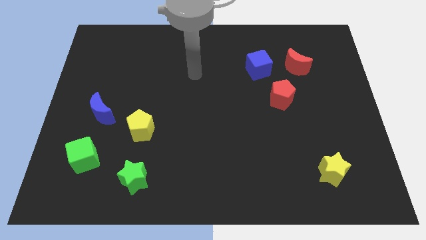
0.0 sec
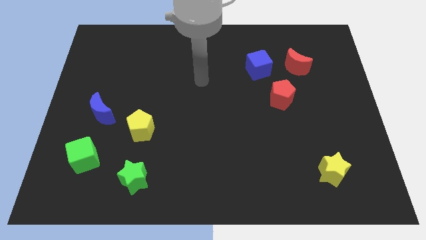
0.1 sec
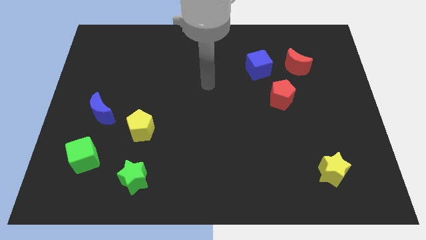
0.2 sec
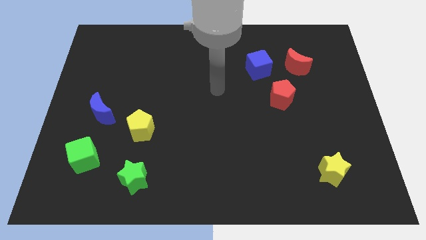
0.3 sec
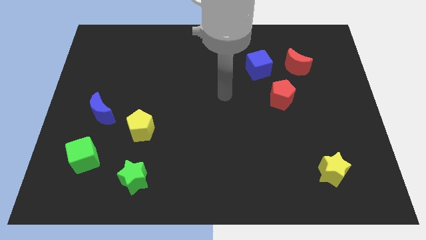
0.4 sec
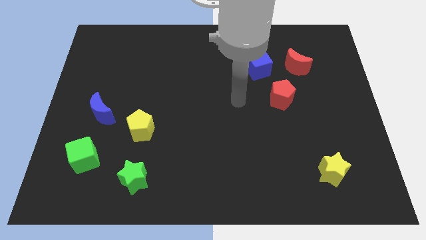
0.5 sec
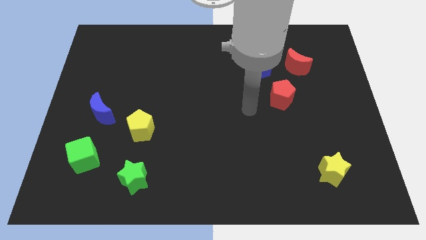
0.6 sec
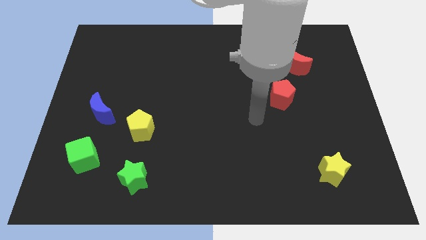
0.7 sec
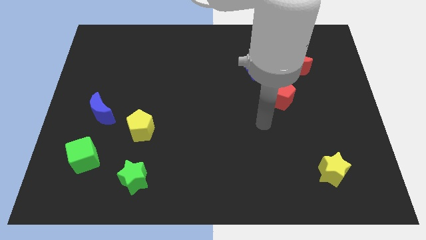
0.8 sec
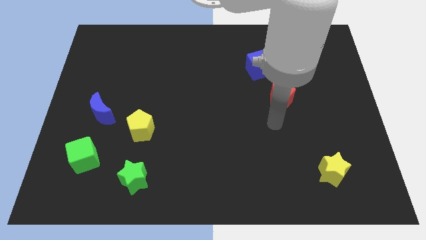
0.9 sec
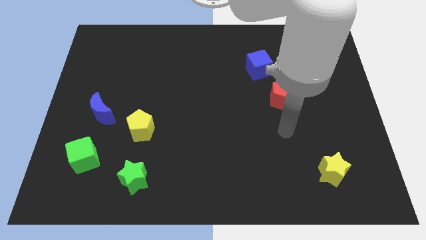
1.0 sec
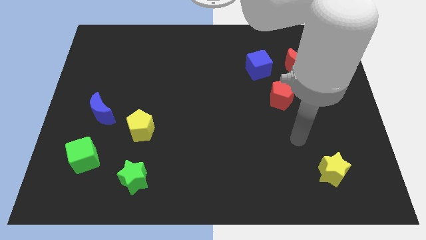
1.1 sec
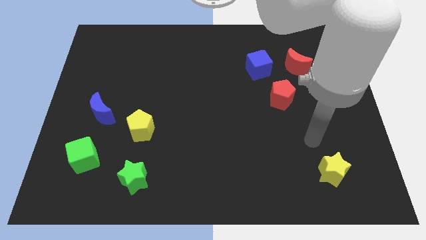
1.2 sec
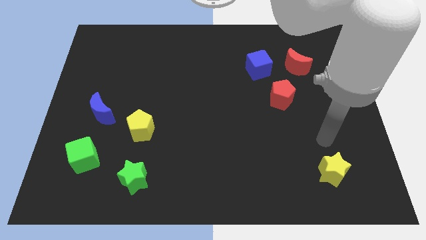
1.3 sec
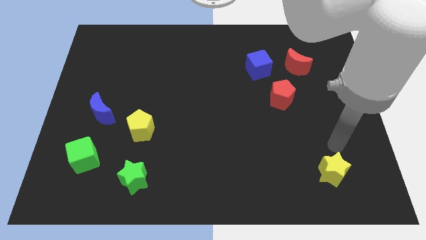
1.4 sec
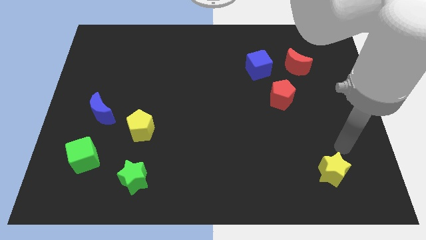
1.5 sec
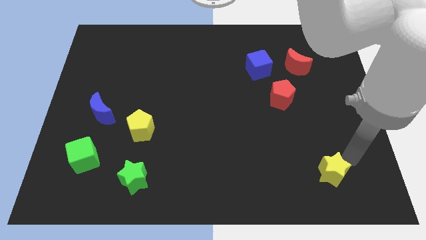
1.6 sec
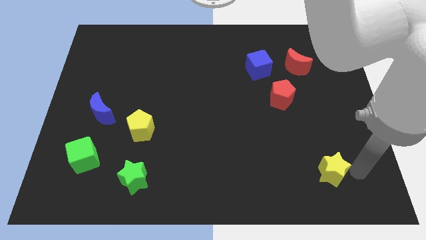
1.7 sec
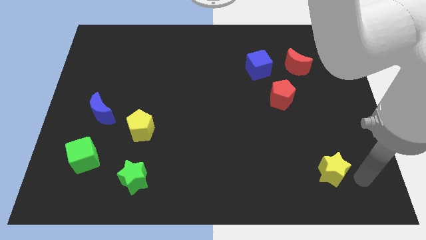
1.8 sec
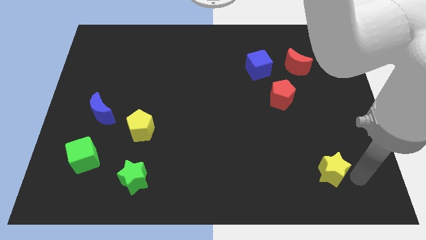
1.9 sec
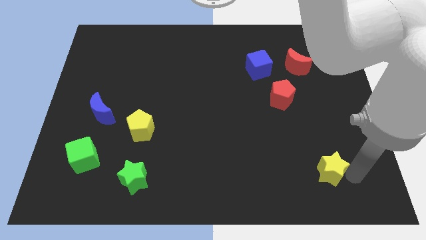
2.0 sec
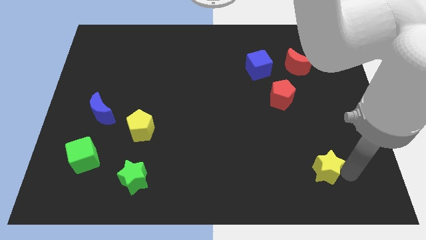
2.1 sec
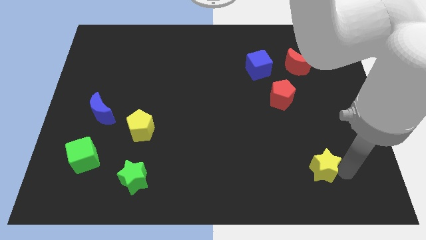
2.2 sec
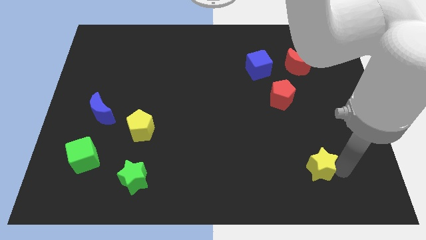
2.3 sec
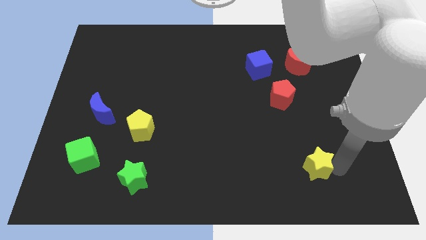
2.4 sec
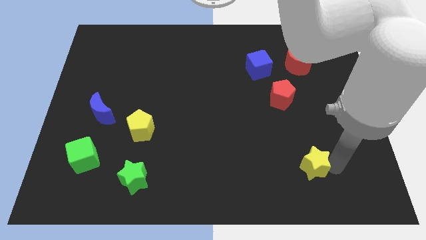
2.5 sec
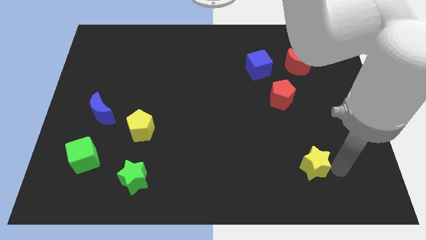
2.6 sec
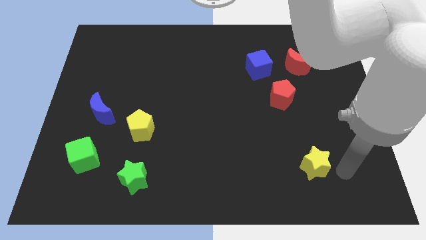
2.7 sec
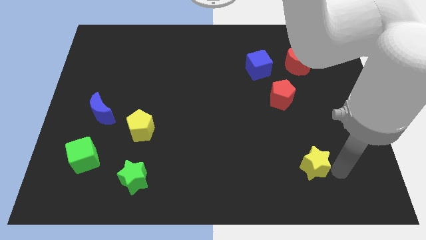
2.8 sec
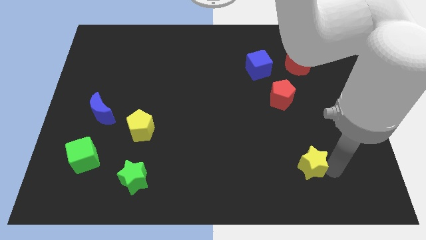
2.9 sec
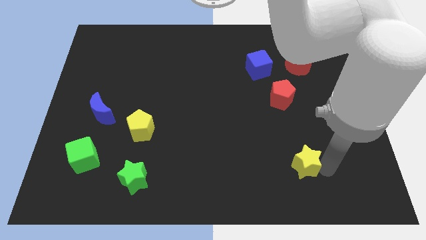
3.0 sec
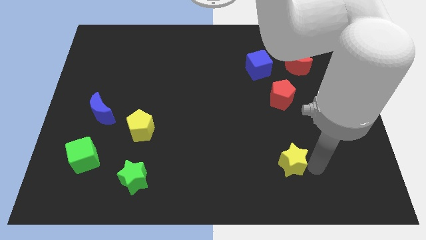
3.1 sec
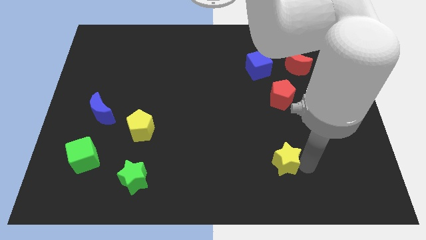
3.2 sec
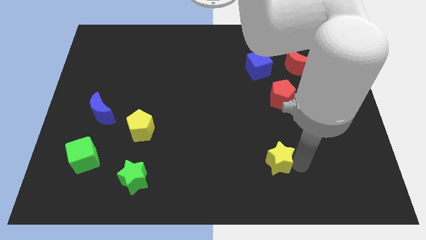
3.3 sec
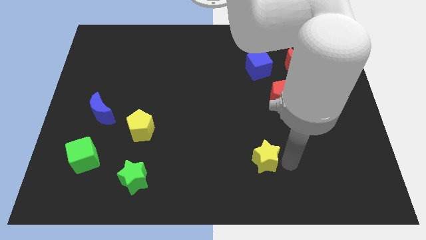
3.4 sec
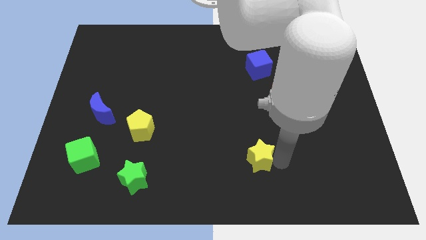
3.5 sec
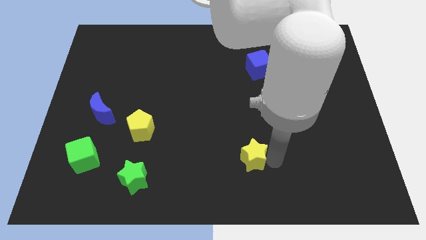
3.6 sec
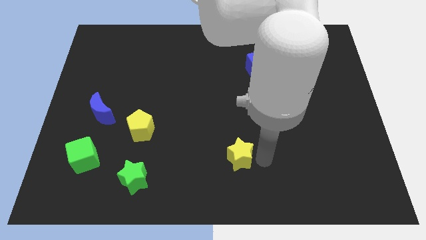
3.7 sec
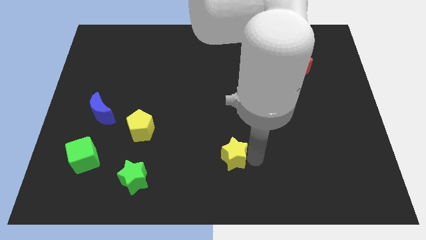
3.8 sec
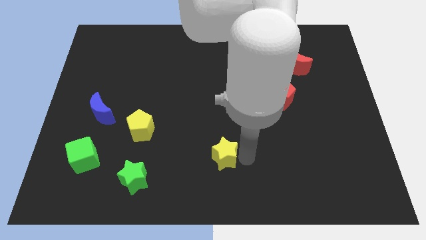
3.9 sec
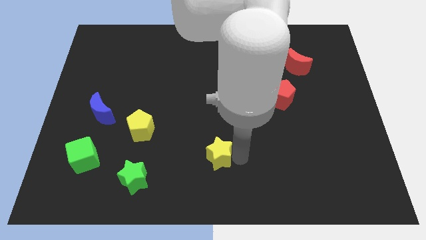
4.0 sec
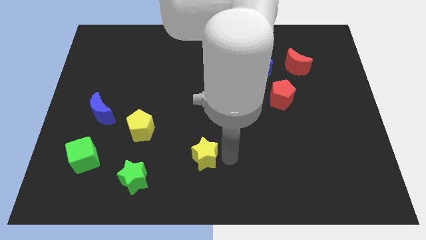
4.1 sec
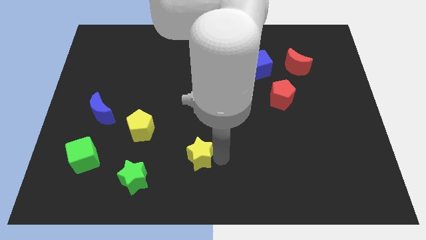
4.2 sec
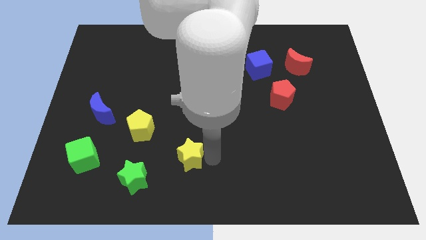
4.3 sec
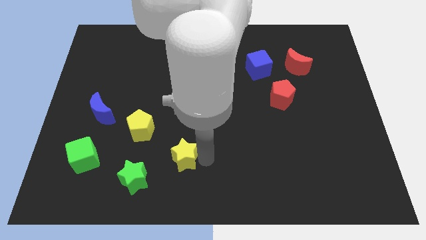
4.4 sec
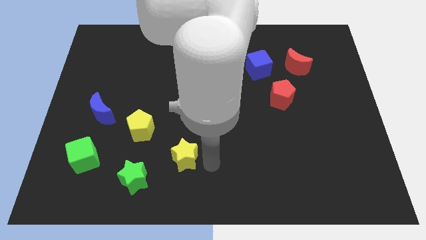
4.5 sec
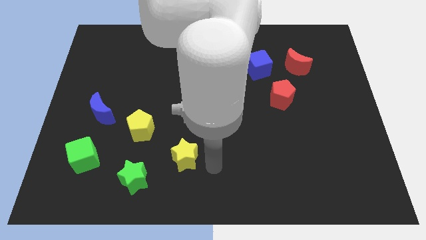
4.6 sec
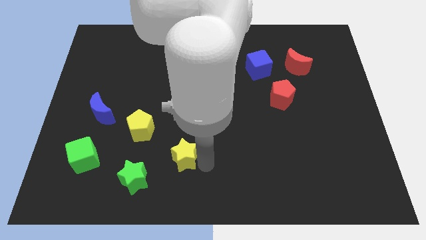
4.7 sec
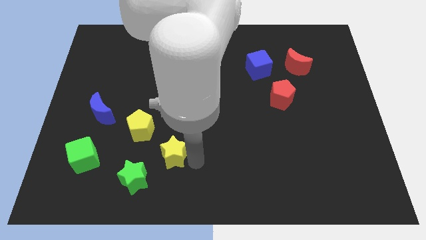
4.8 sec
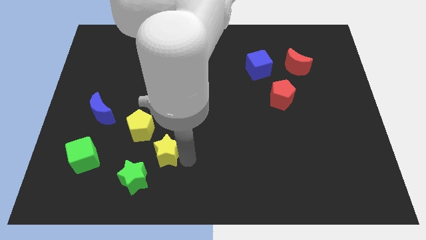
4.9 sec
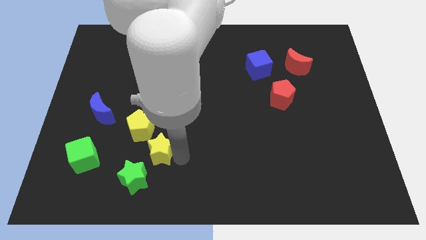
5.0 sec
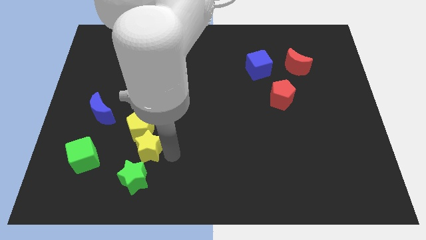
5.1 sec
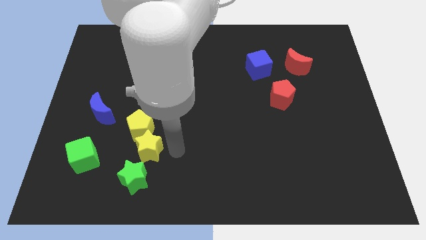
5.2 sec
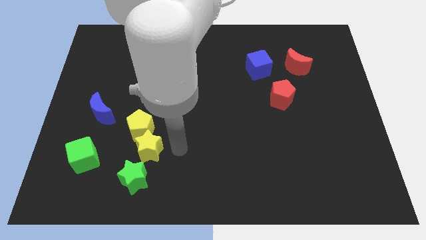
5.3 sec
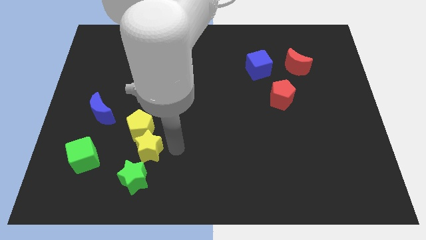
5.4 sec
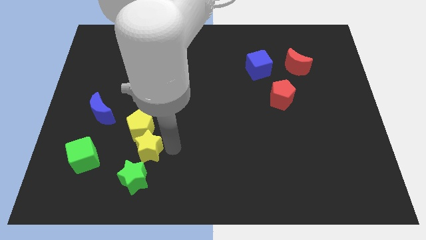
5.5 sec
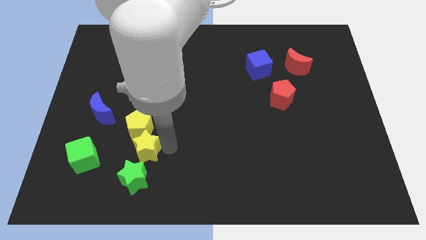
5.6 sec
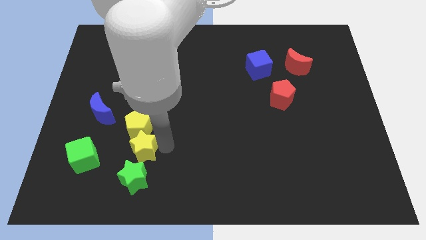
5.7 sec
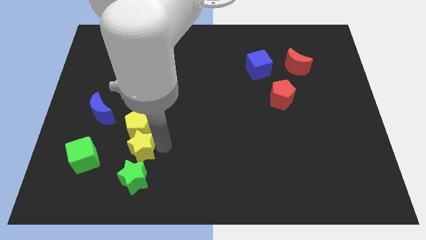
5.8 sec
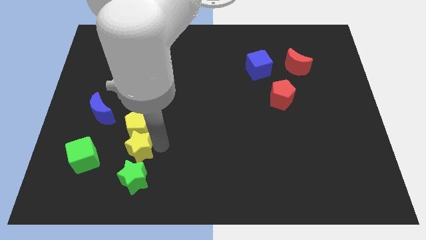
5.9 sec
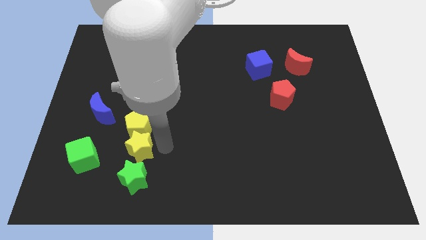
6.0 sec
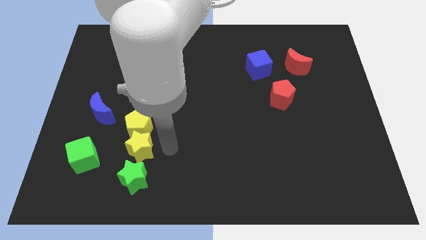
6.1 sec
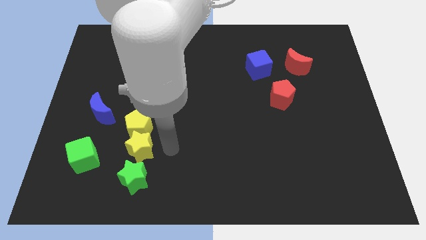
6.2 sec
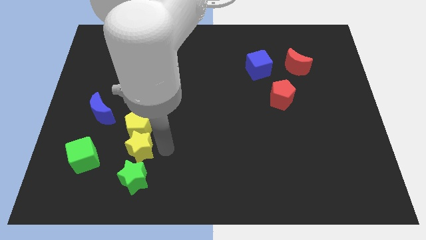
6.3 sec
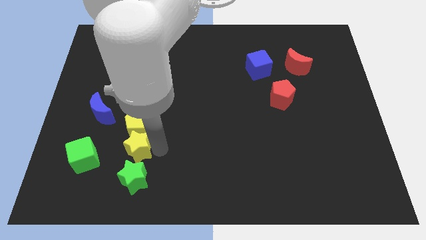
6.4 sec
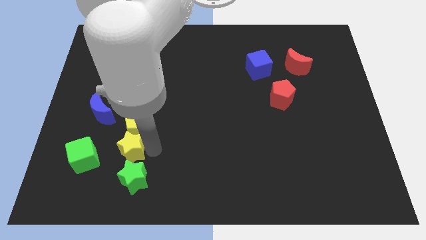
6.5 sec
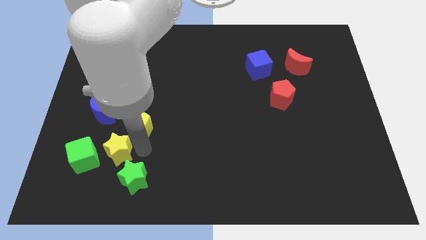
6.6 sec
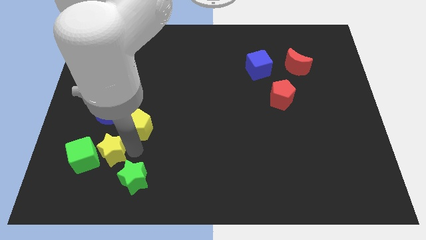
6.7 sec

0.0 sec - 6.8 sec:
move the yellow star towards the green cube
